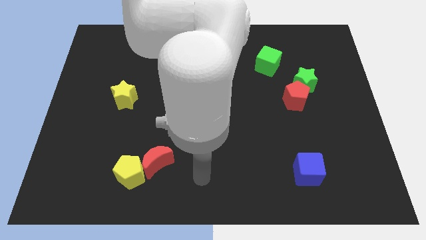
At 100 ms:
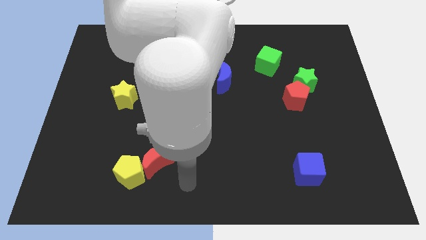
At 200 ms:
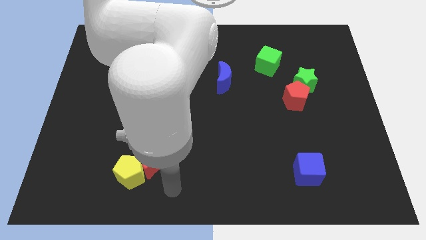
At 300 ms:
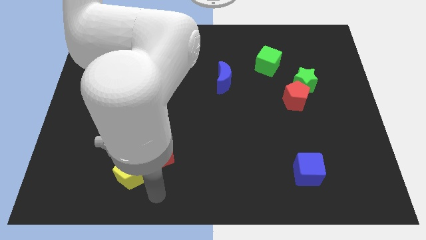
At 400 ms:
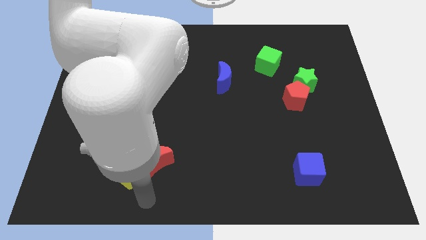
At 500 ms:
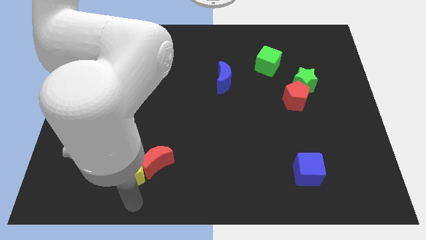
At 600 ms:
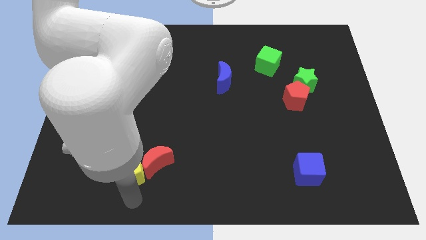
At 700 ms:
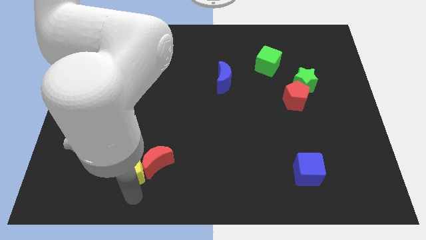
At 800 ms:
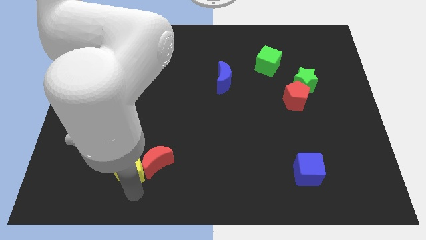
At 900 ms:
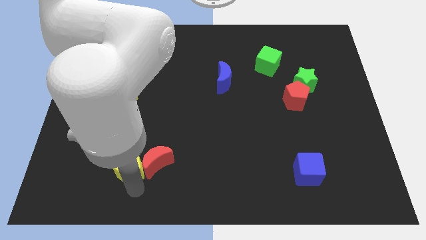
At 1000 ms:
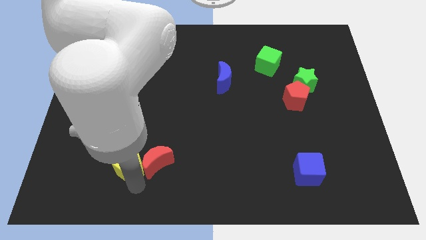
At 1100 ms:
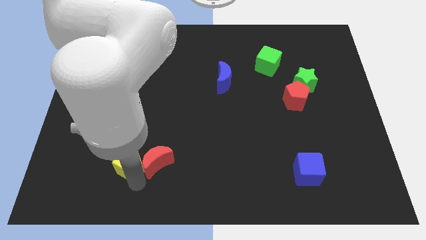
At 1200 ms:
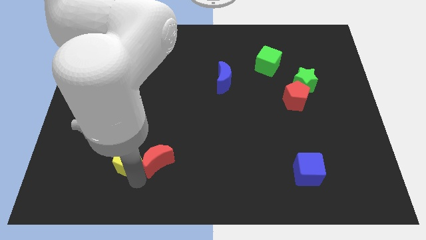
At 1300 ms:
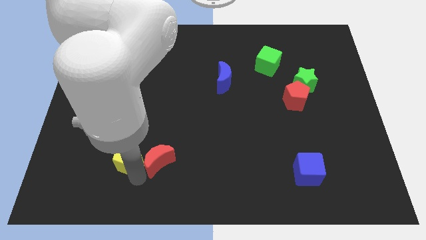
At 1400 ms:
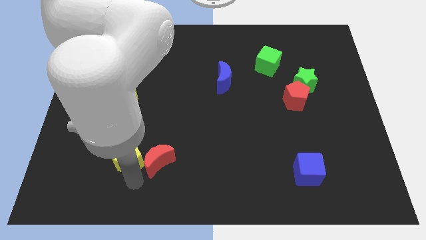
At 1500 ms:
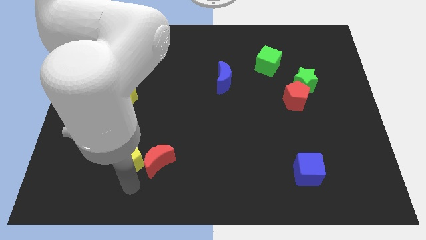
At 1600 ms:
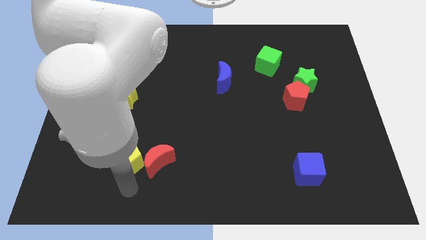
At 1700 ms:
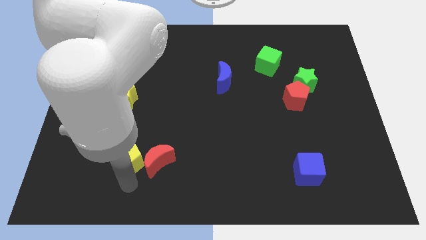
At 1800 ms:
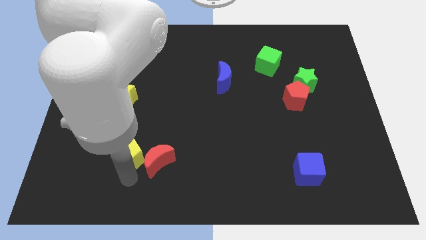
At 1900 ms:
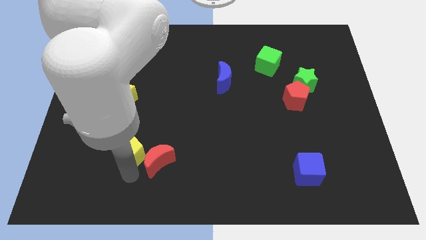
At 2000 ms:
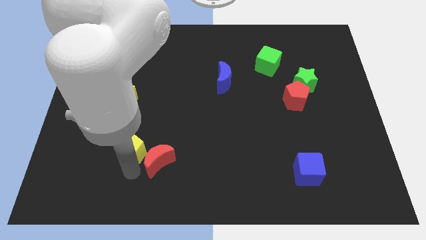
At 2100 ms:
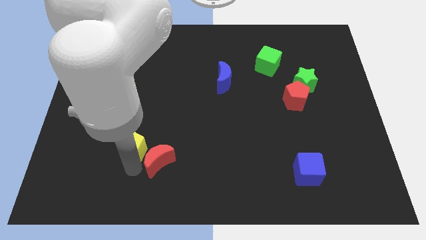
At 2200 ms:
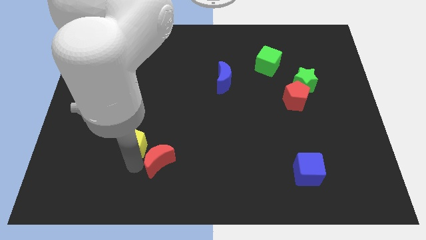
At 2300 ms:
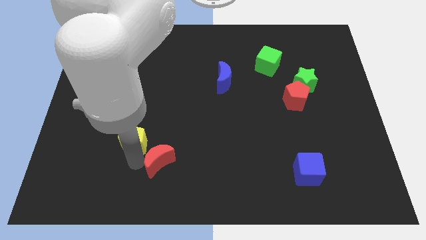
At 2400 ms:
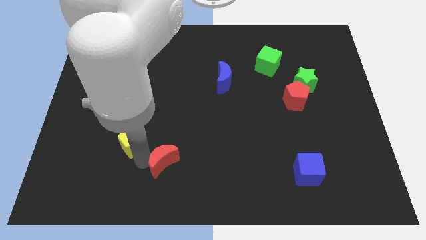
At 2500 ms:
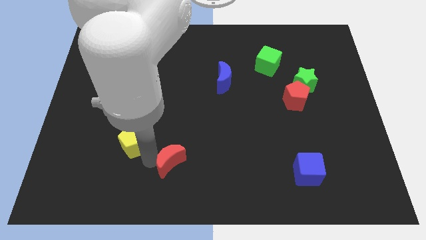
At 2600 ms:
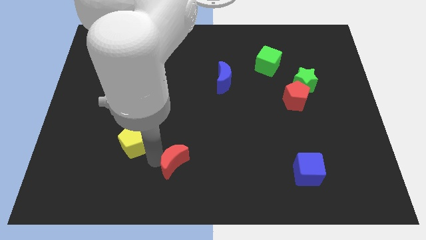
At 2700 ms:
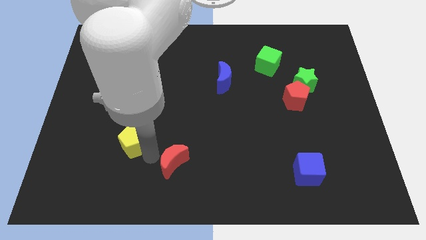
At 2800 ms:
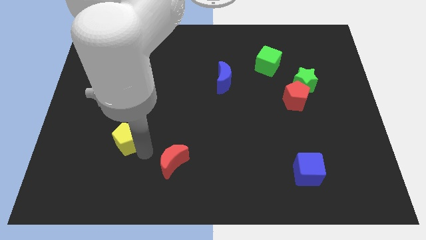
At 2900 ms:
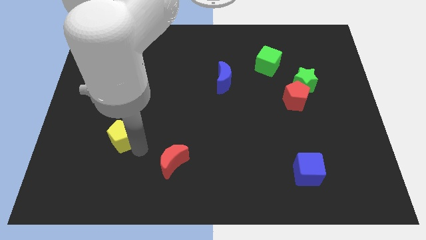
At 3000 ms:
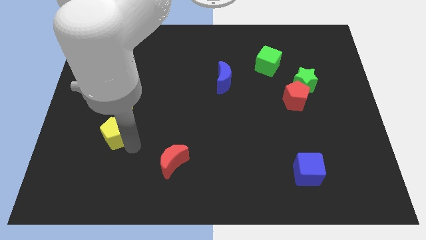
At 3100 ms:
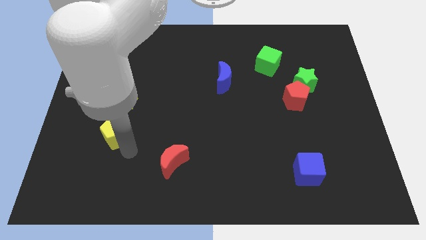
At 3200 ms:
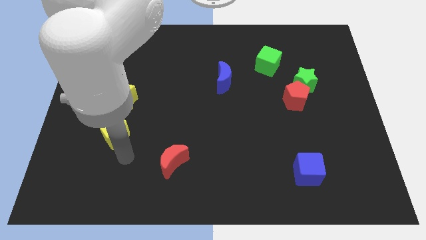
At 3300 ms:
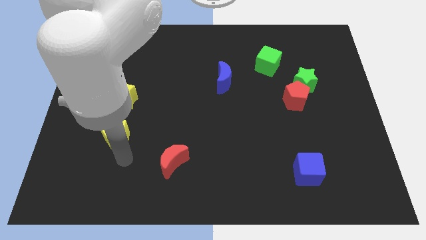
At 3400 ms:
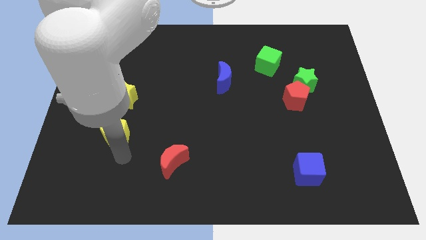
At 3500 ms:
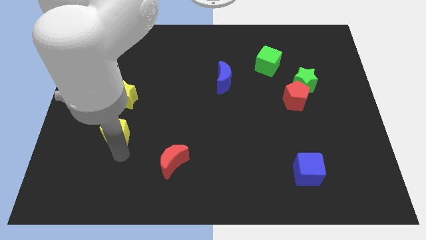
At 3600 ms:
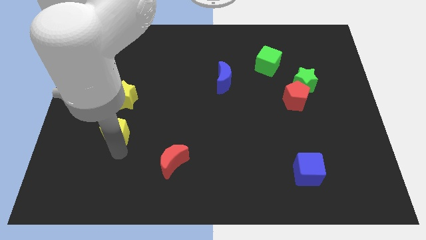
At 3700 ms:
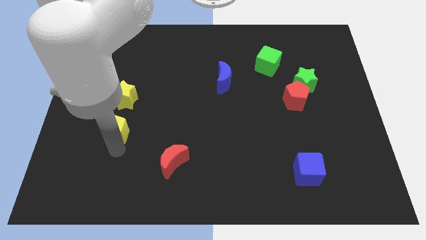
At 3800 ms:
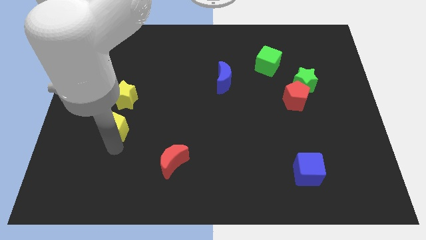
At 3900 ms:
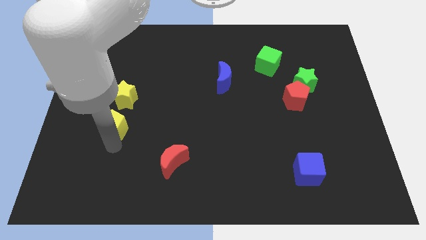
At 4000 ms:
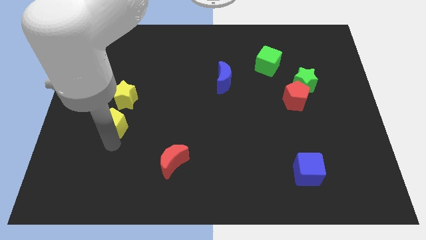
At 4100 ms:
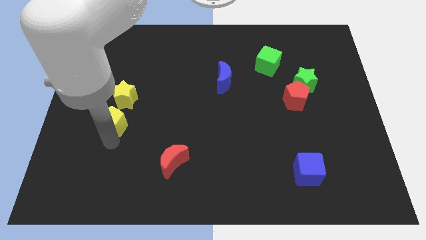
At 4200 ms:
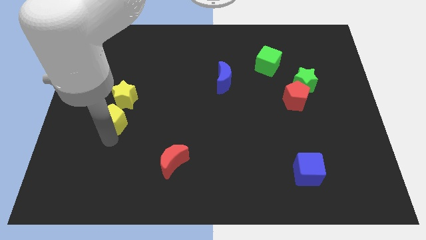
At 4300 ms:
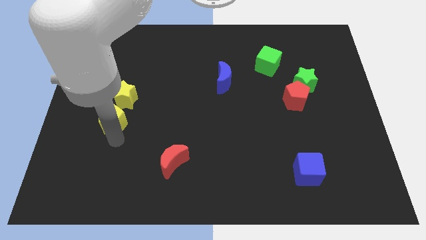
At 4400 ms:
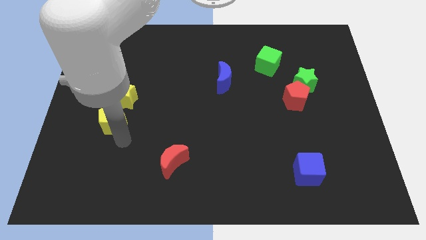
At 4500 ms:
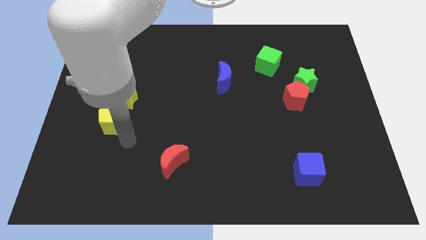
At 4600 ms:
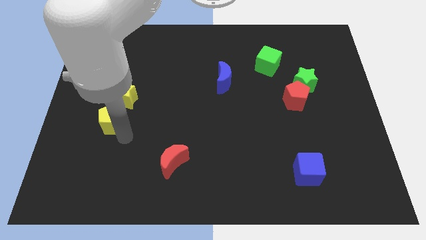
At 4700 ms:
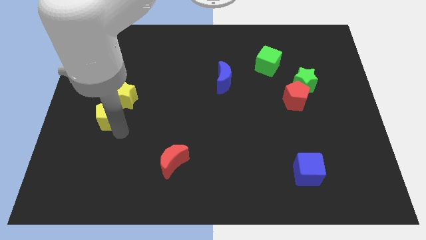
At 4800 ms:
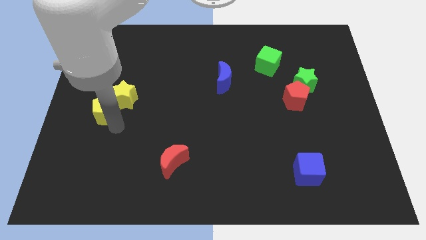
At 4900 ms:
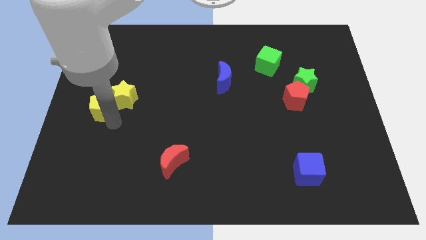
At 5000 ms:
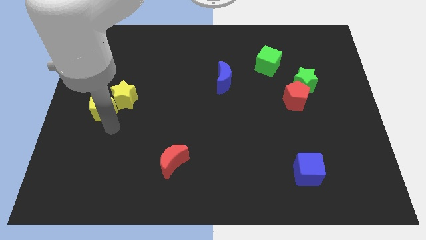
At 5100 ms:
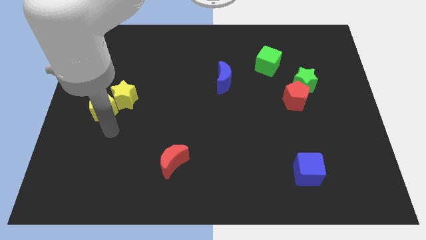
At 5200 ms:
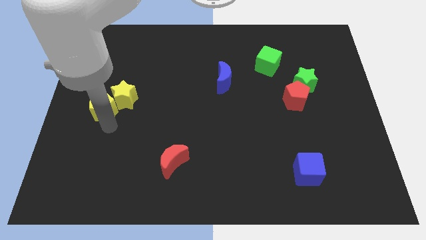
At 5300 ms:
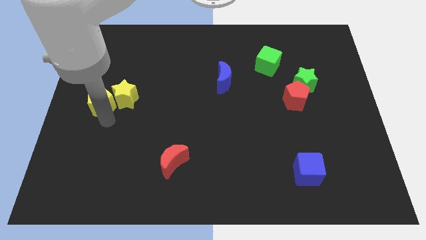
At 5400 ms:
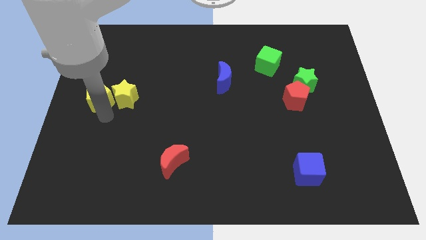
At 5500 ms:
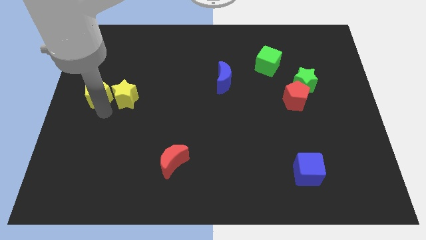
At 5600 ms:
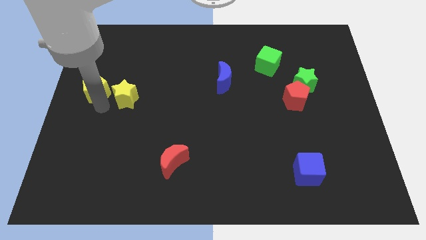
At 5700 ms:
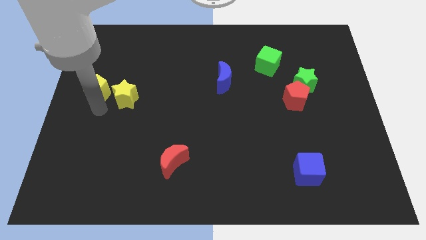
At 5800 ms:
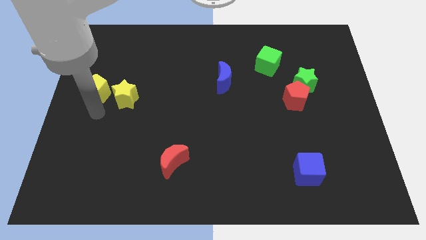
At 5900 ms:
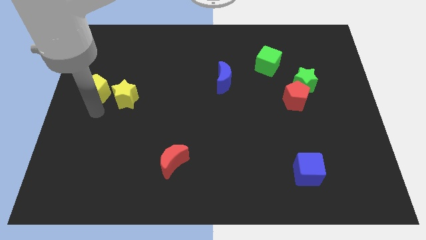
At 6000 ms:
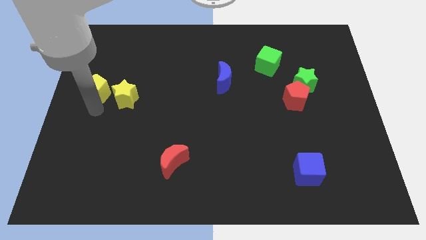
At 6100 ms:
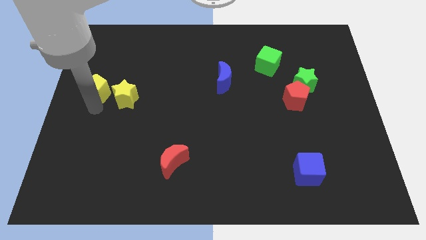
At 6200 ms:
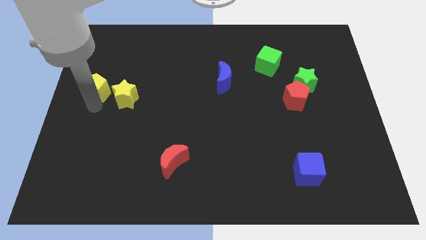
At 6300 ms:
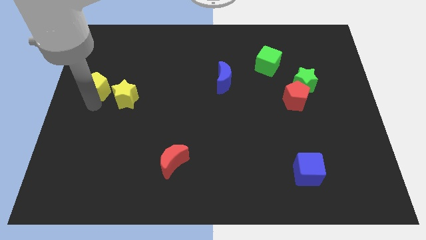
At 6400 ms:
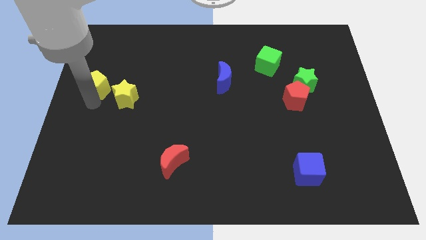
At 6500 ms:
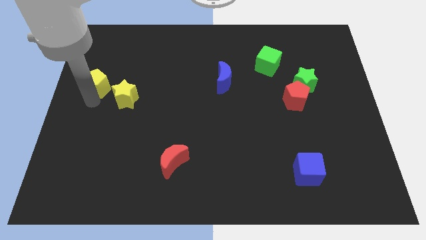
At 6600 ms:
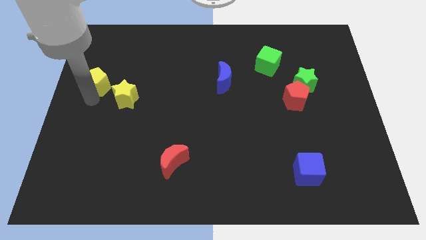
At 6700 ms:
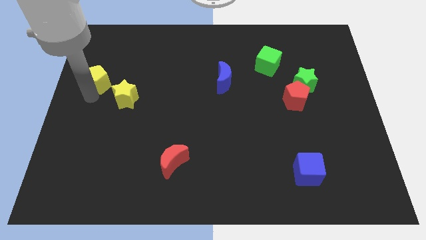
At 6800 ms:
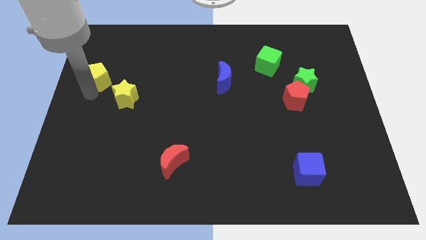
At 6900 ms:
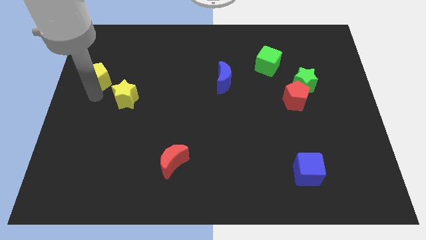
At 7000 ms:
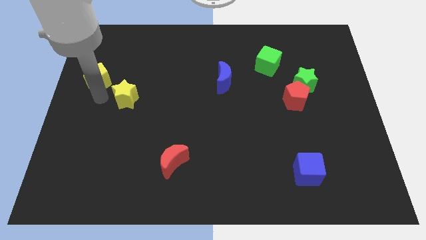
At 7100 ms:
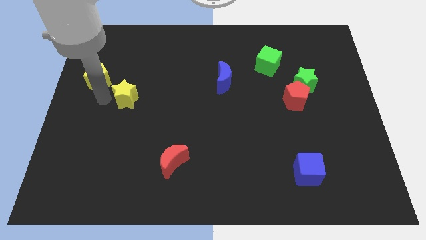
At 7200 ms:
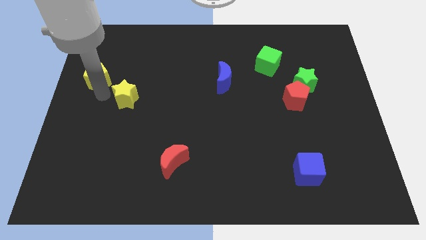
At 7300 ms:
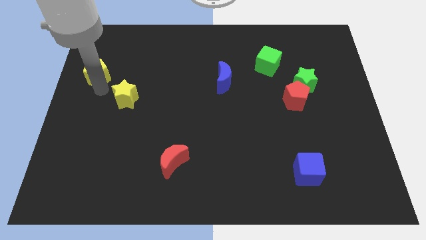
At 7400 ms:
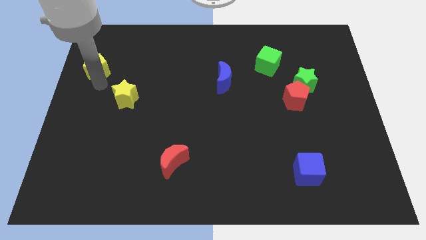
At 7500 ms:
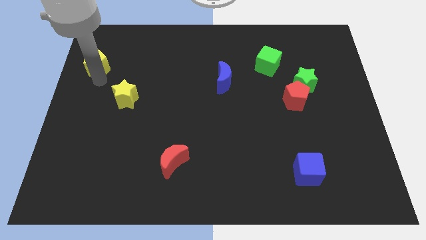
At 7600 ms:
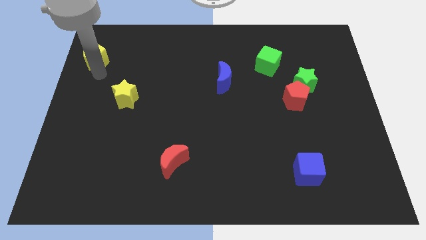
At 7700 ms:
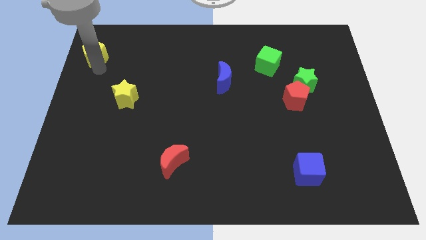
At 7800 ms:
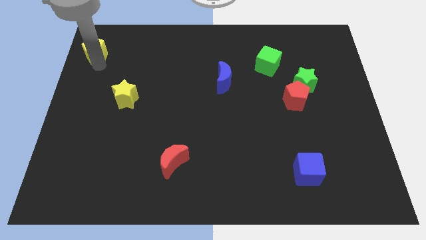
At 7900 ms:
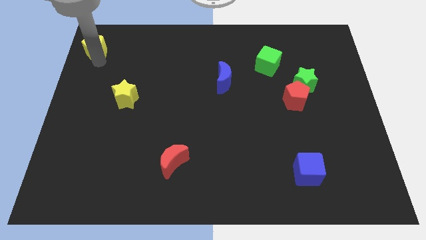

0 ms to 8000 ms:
put the yellow pentagon to the top left of the board
